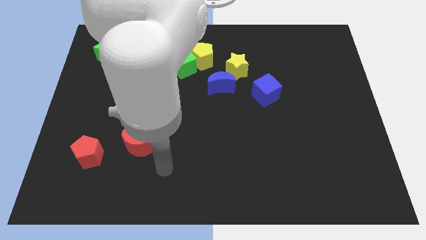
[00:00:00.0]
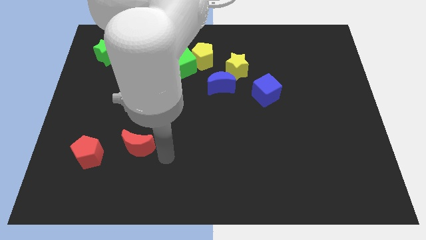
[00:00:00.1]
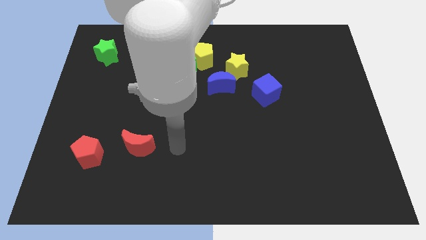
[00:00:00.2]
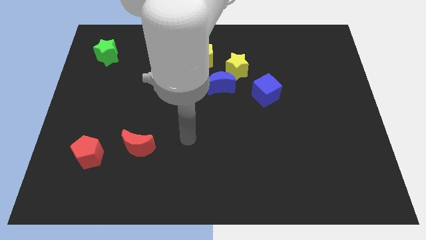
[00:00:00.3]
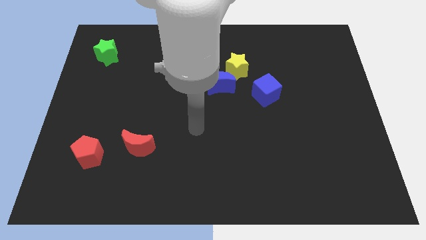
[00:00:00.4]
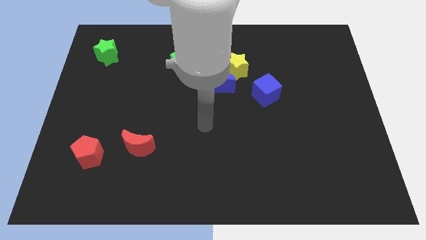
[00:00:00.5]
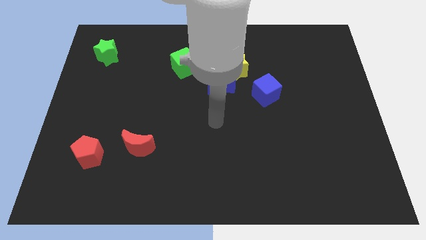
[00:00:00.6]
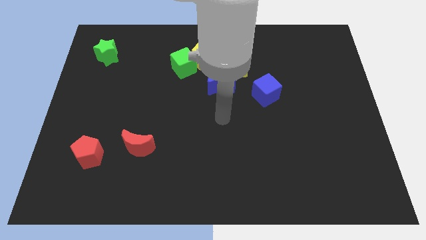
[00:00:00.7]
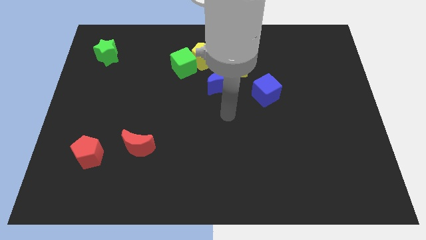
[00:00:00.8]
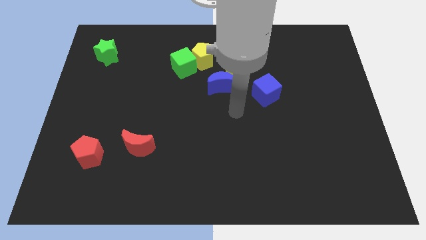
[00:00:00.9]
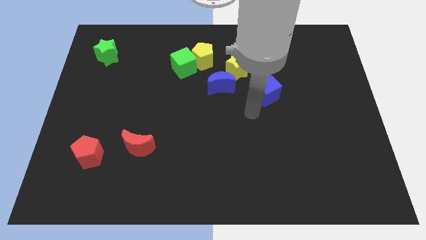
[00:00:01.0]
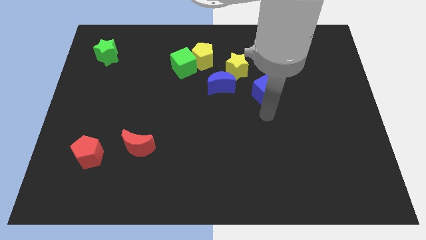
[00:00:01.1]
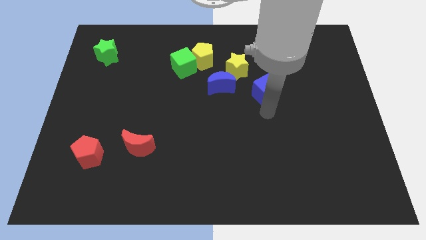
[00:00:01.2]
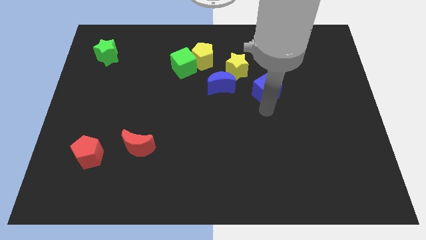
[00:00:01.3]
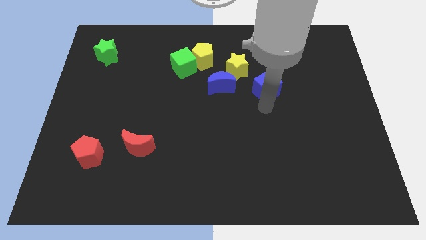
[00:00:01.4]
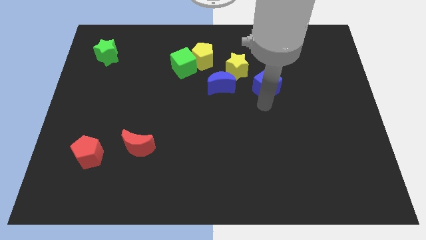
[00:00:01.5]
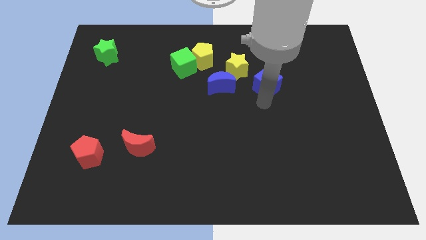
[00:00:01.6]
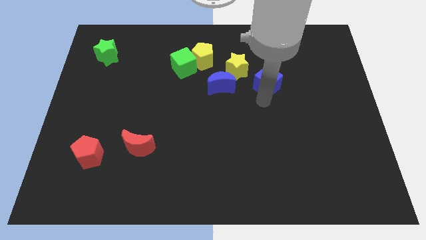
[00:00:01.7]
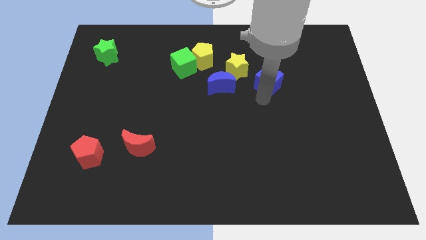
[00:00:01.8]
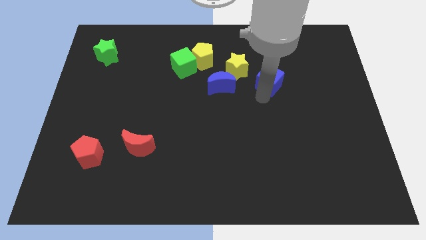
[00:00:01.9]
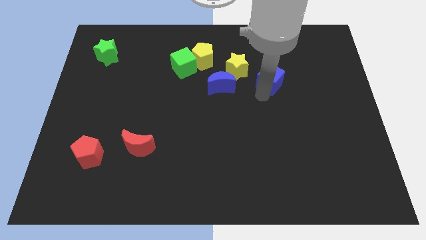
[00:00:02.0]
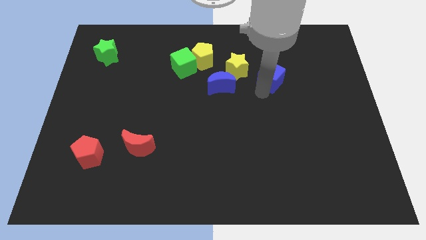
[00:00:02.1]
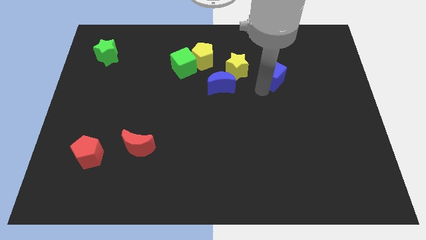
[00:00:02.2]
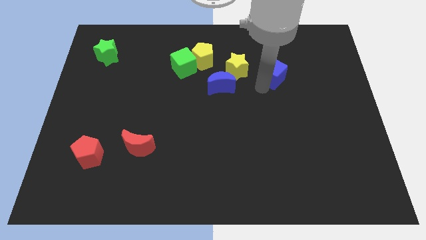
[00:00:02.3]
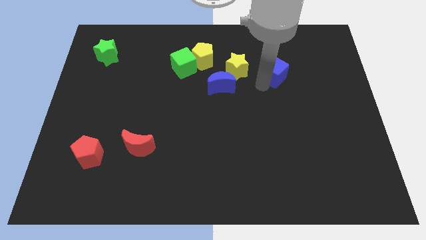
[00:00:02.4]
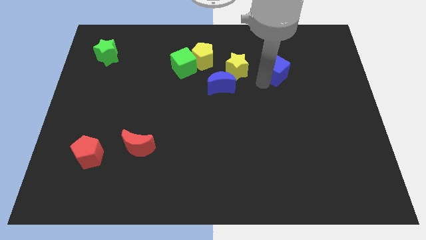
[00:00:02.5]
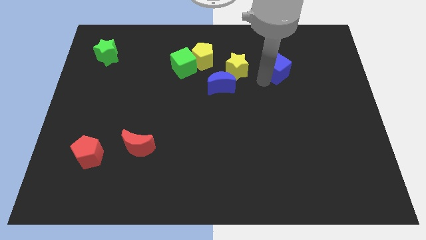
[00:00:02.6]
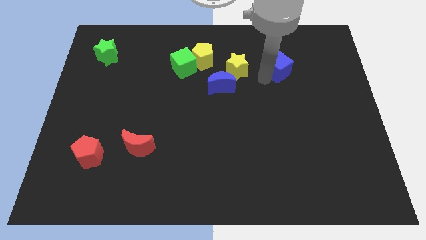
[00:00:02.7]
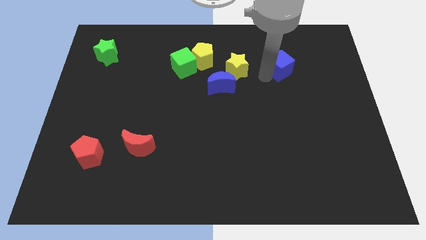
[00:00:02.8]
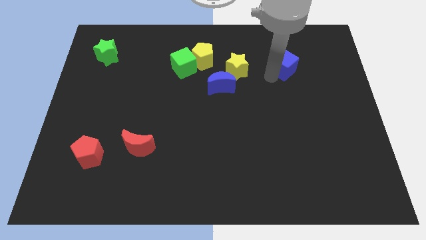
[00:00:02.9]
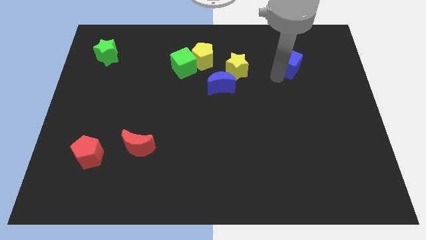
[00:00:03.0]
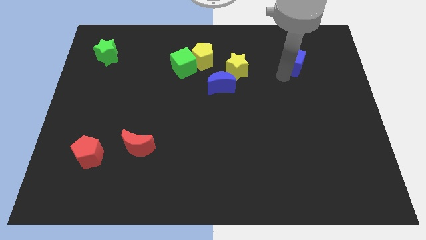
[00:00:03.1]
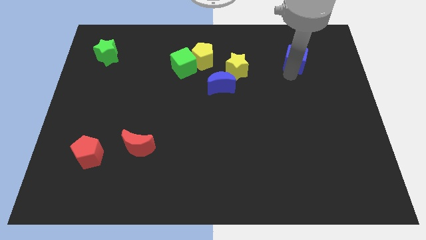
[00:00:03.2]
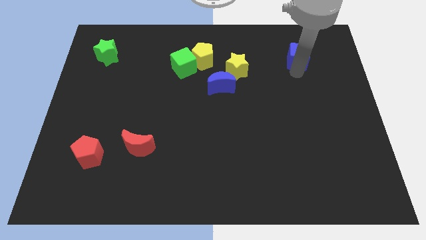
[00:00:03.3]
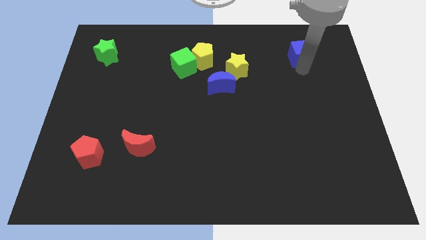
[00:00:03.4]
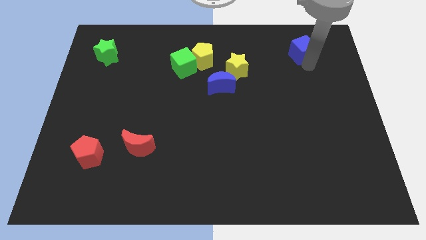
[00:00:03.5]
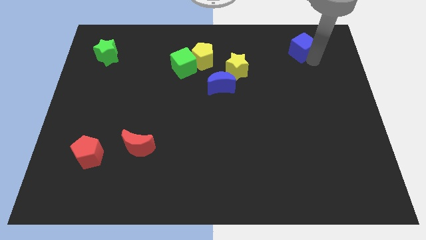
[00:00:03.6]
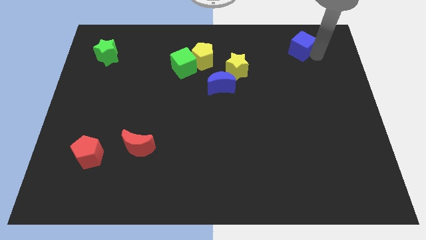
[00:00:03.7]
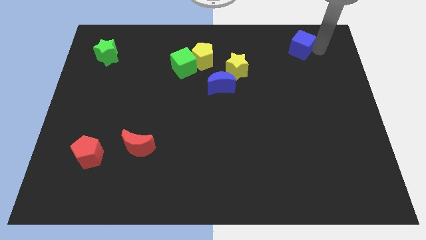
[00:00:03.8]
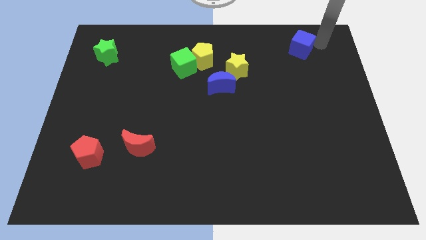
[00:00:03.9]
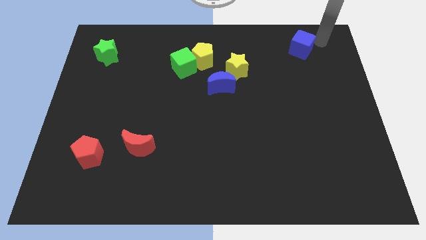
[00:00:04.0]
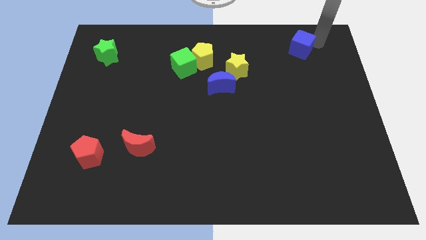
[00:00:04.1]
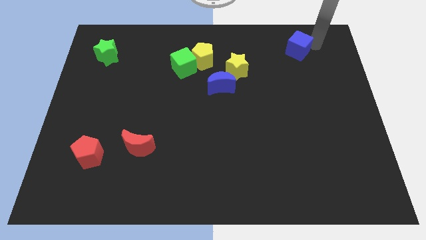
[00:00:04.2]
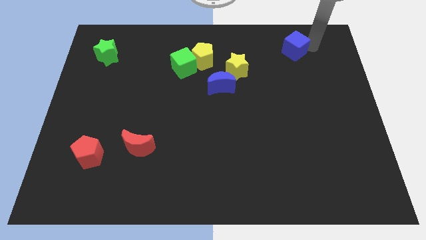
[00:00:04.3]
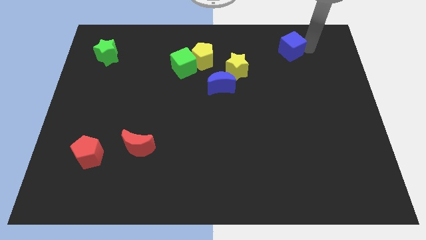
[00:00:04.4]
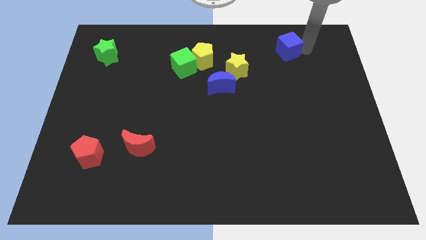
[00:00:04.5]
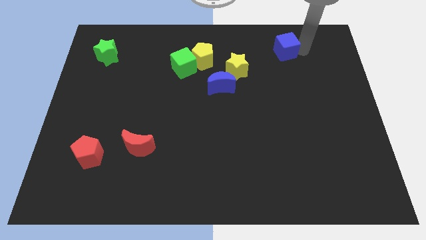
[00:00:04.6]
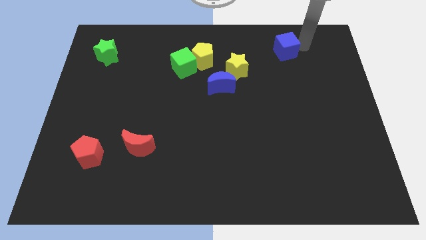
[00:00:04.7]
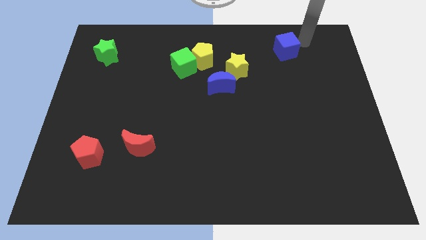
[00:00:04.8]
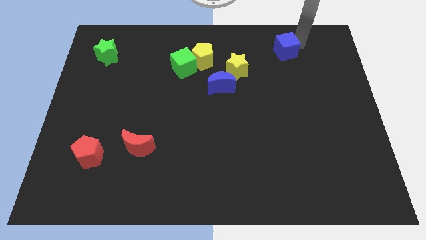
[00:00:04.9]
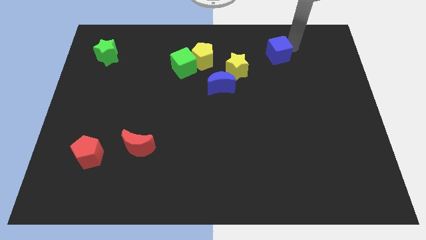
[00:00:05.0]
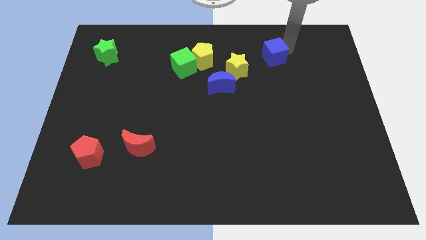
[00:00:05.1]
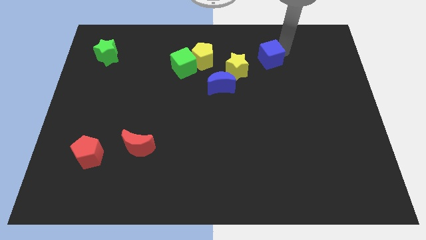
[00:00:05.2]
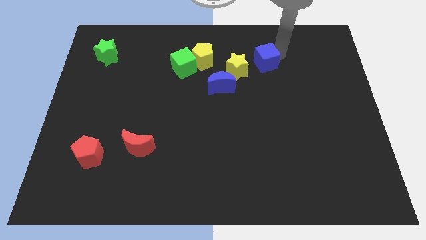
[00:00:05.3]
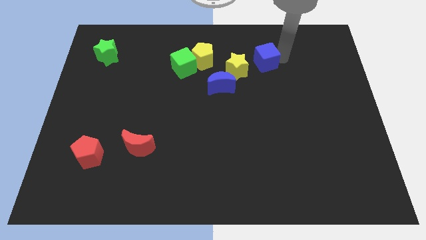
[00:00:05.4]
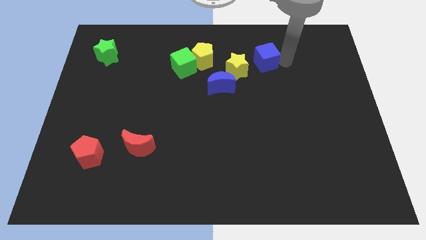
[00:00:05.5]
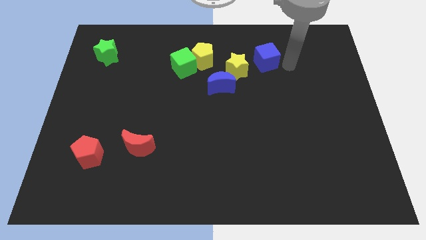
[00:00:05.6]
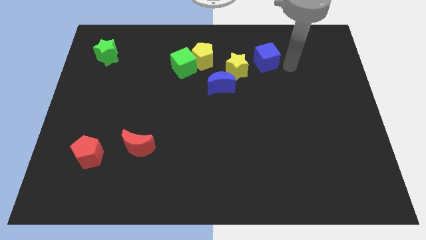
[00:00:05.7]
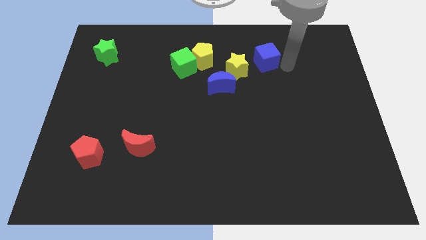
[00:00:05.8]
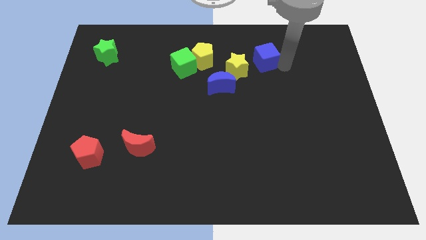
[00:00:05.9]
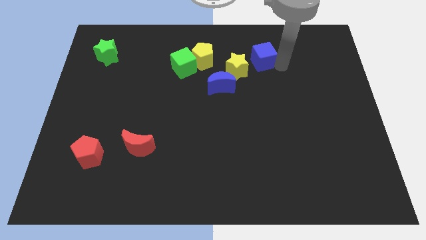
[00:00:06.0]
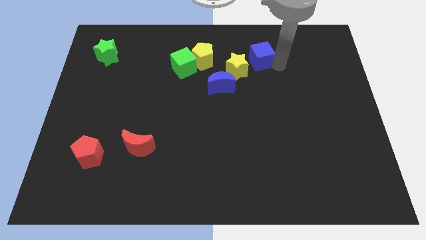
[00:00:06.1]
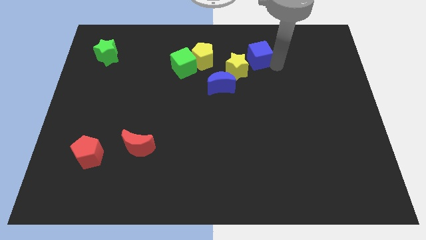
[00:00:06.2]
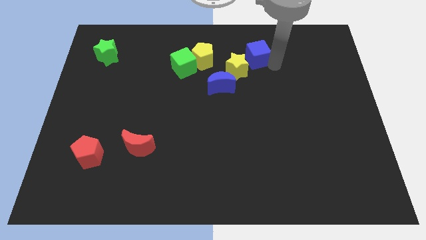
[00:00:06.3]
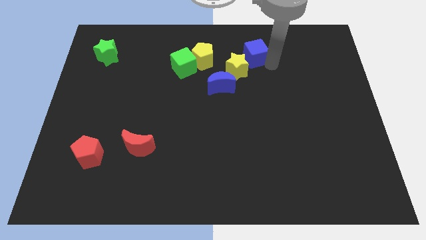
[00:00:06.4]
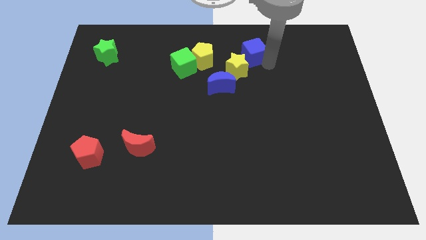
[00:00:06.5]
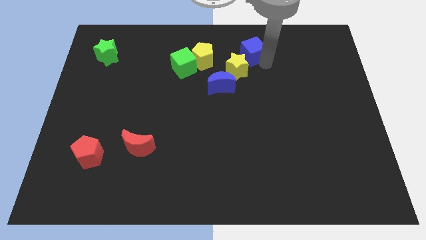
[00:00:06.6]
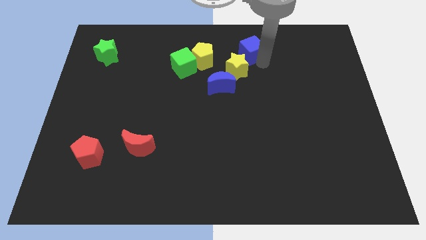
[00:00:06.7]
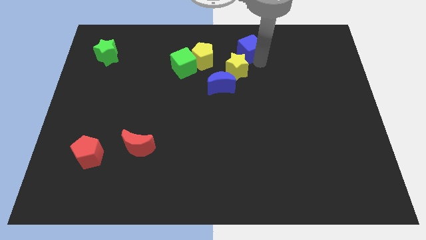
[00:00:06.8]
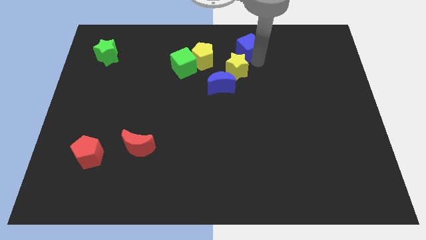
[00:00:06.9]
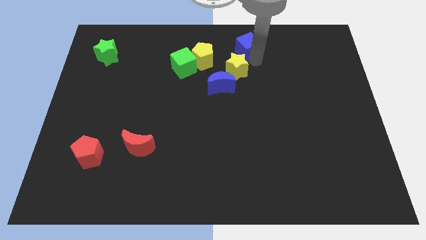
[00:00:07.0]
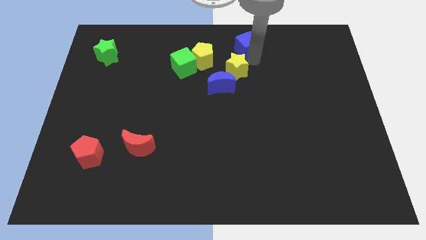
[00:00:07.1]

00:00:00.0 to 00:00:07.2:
put the blue cube to the top
